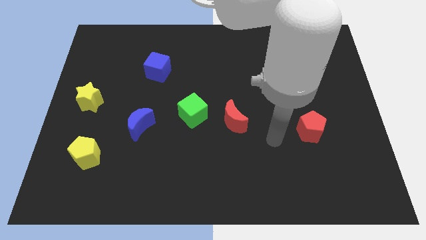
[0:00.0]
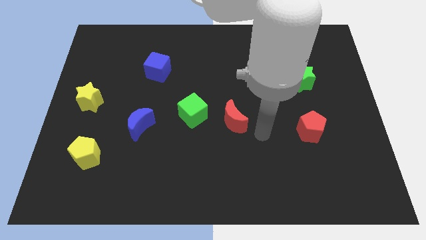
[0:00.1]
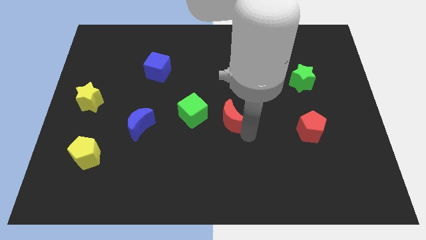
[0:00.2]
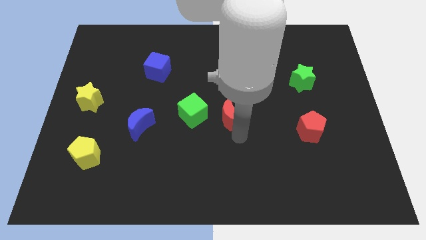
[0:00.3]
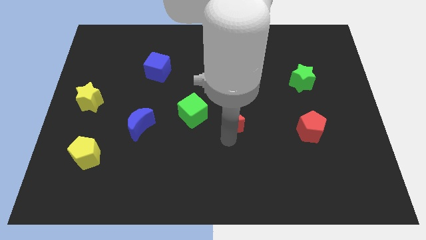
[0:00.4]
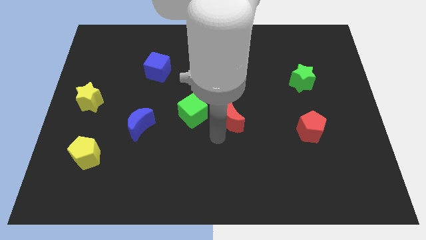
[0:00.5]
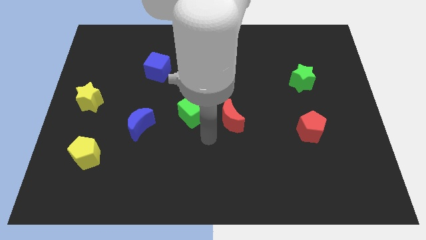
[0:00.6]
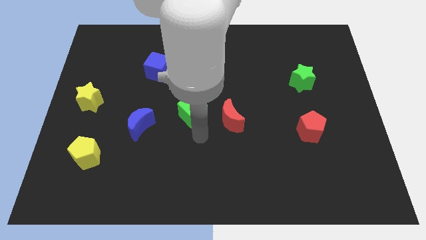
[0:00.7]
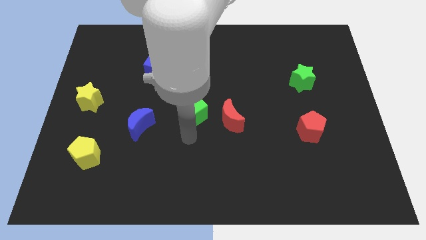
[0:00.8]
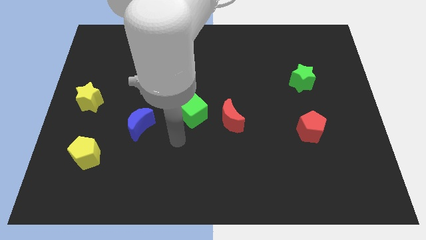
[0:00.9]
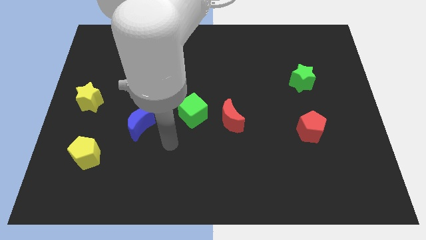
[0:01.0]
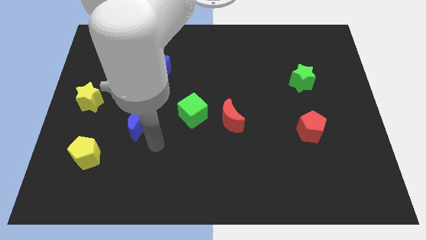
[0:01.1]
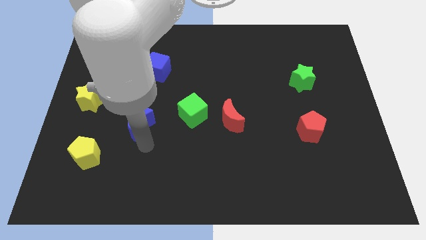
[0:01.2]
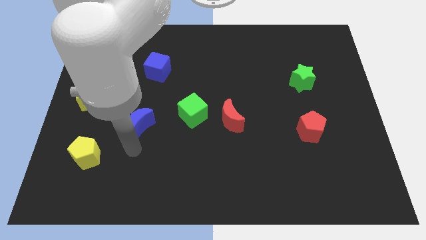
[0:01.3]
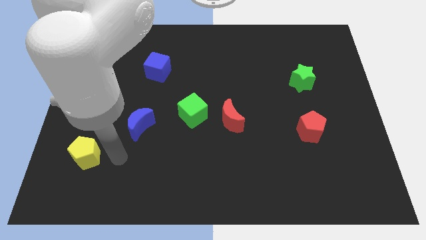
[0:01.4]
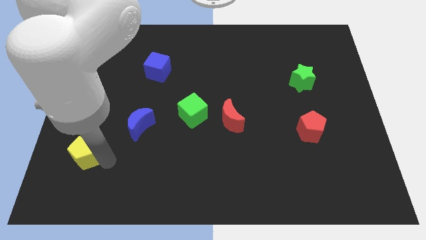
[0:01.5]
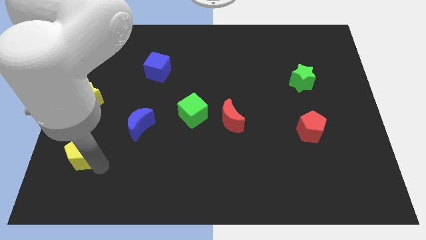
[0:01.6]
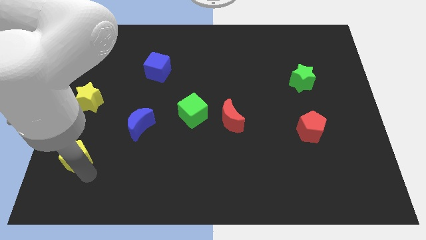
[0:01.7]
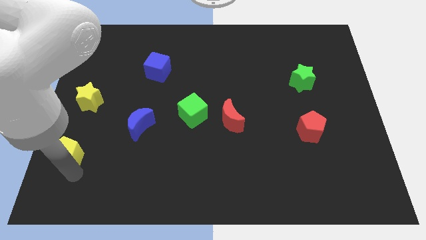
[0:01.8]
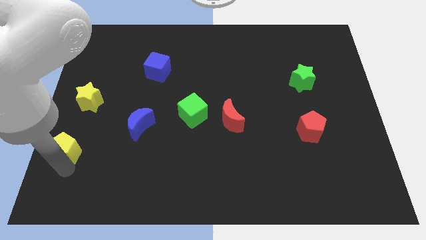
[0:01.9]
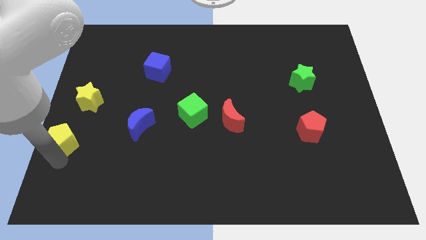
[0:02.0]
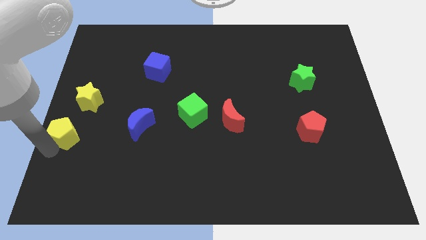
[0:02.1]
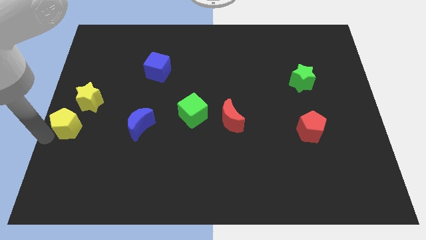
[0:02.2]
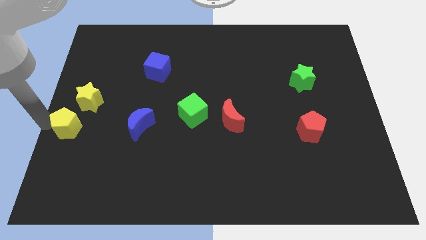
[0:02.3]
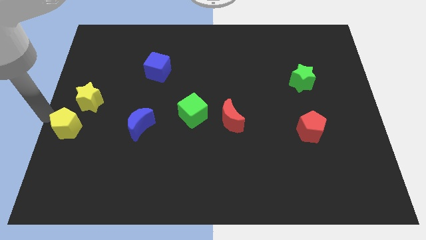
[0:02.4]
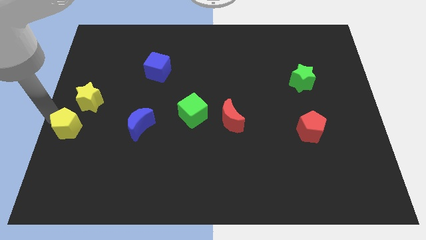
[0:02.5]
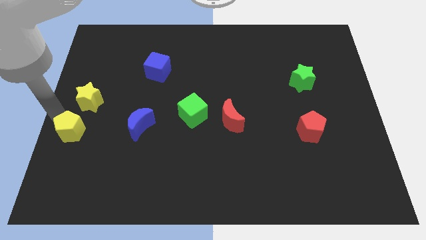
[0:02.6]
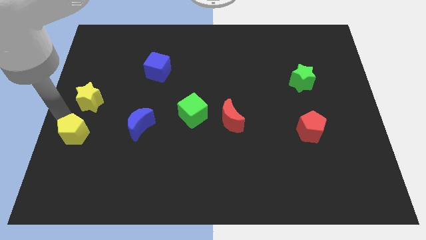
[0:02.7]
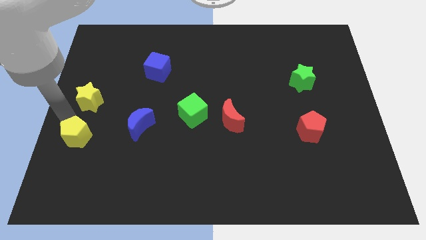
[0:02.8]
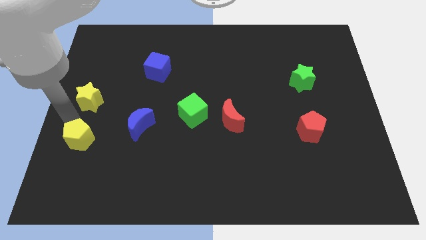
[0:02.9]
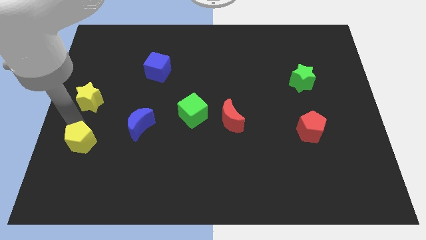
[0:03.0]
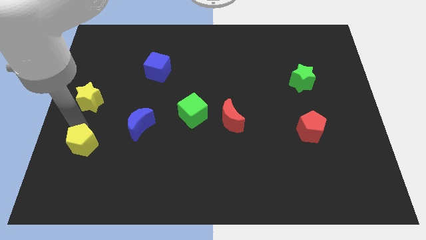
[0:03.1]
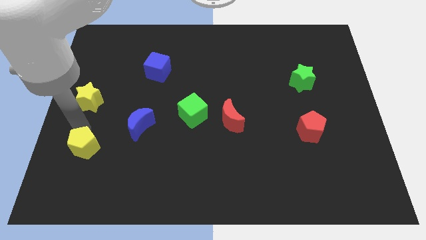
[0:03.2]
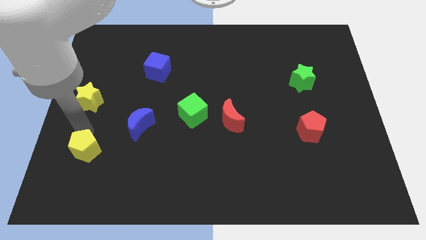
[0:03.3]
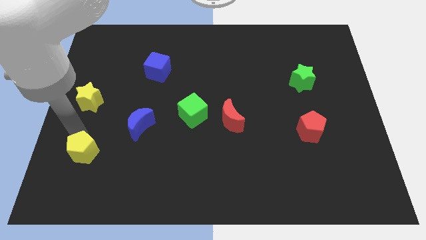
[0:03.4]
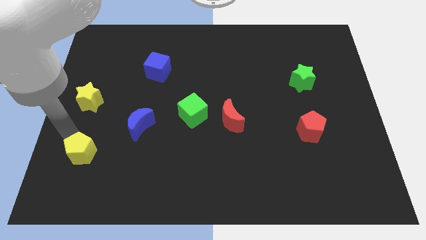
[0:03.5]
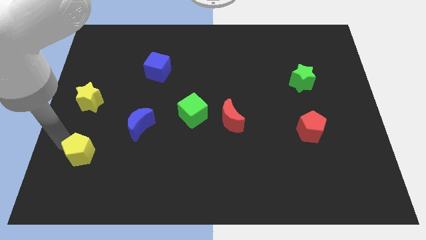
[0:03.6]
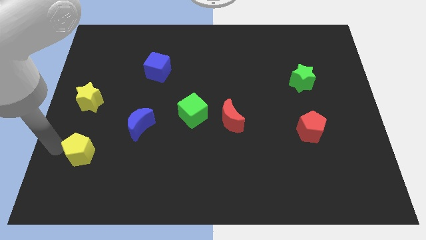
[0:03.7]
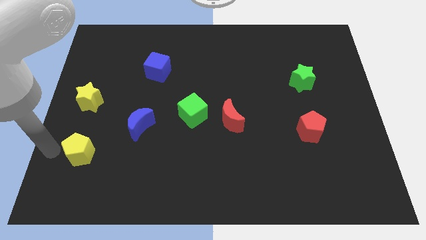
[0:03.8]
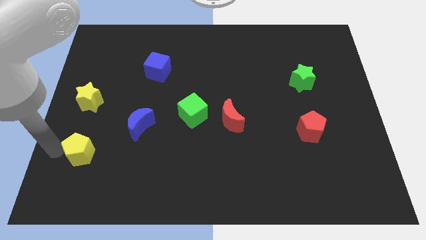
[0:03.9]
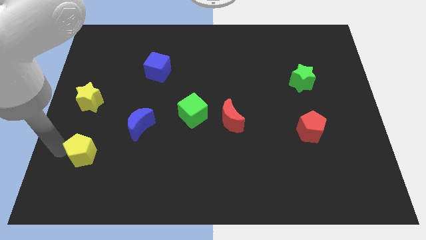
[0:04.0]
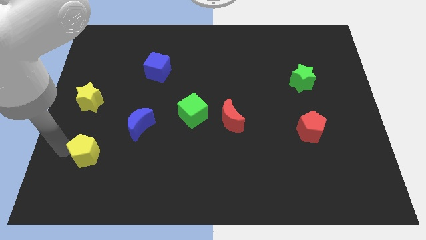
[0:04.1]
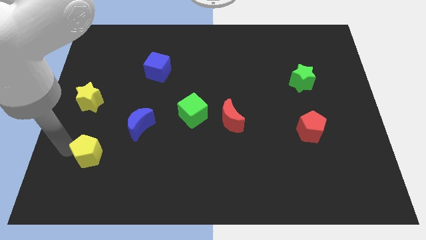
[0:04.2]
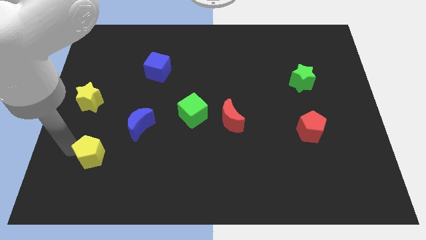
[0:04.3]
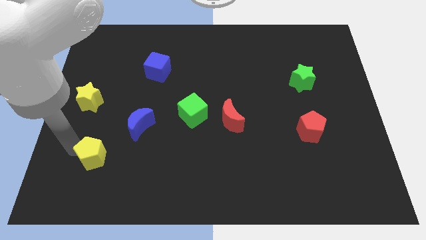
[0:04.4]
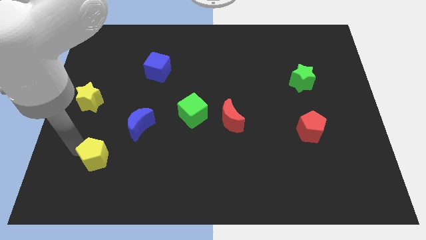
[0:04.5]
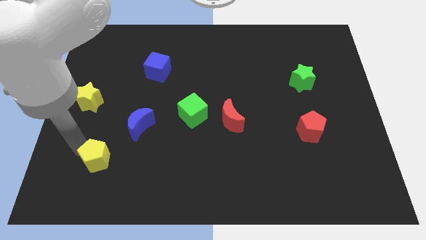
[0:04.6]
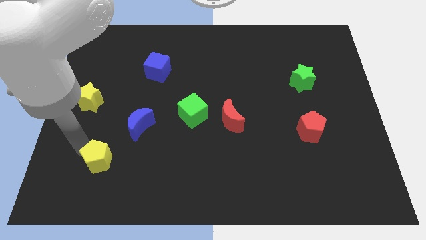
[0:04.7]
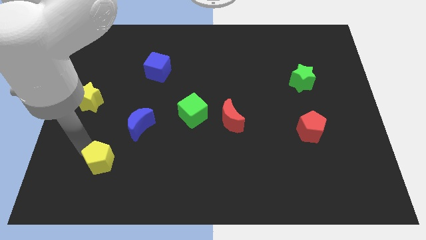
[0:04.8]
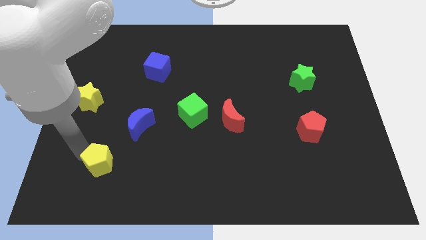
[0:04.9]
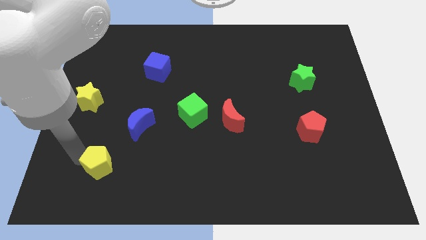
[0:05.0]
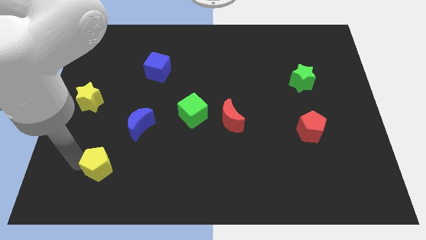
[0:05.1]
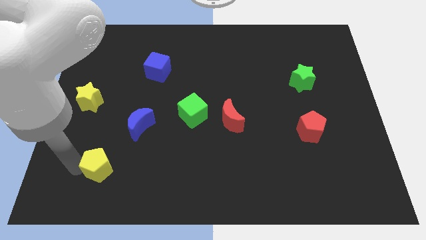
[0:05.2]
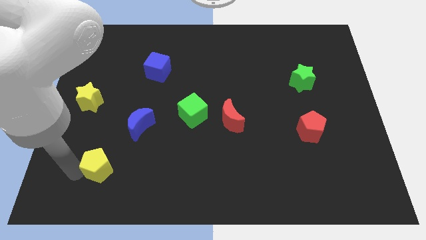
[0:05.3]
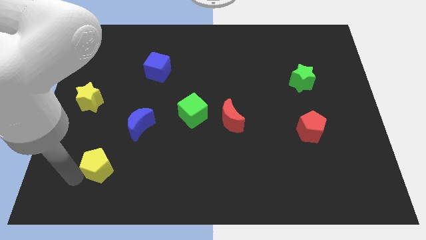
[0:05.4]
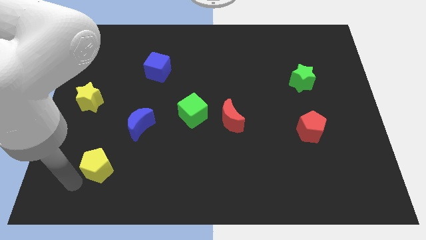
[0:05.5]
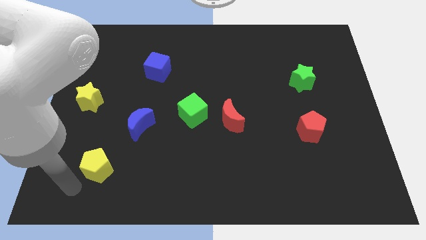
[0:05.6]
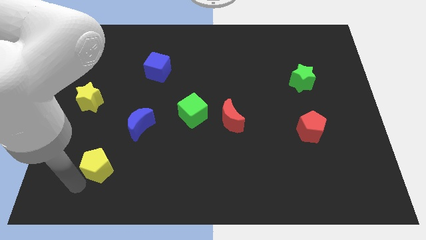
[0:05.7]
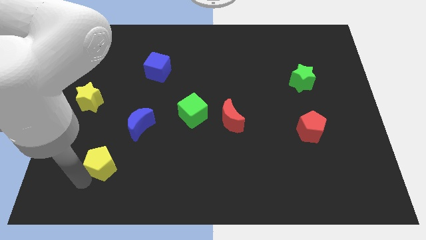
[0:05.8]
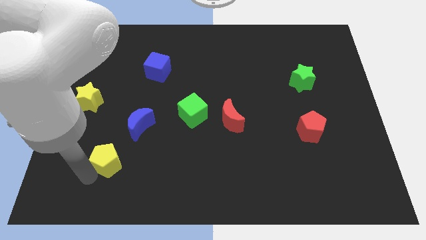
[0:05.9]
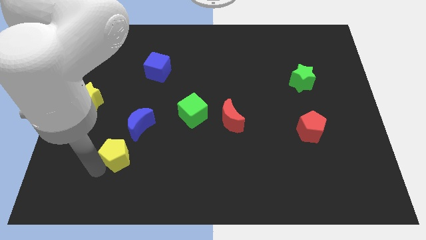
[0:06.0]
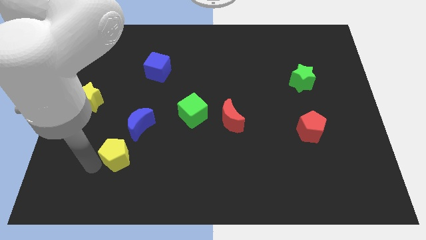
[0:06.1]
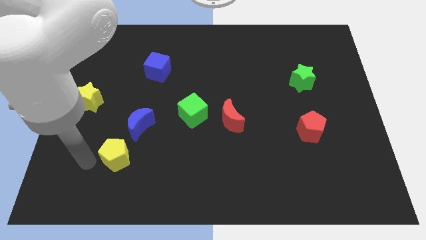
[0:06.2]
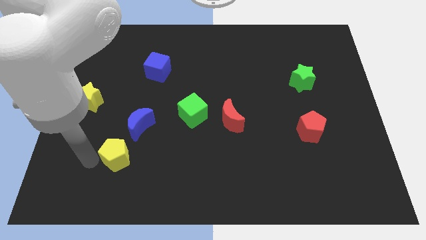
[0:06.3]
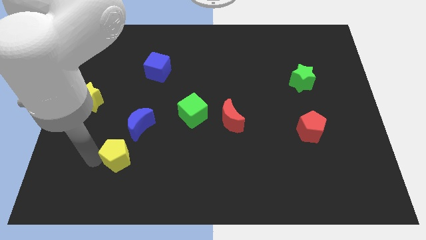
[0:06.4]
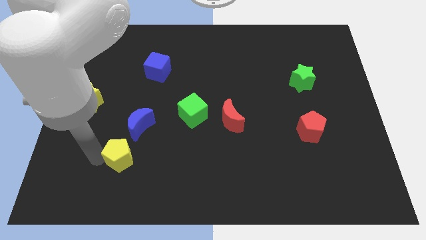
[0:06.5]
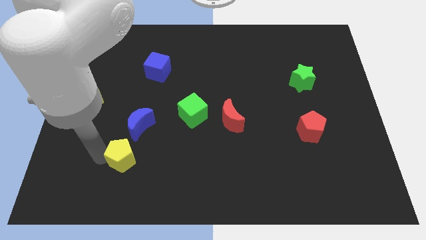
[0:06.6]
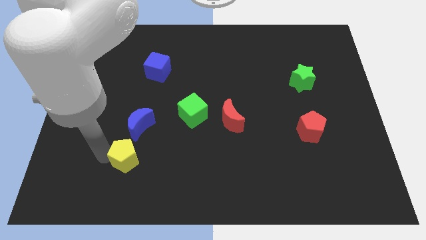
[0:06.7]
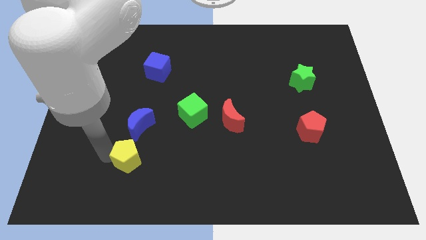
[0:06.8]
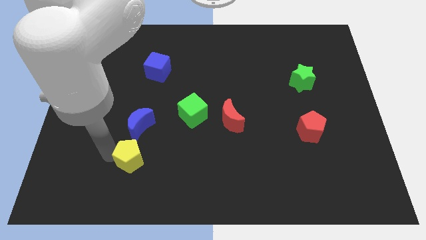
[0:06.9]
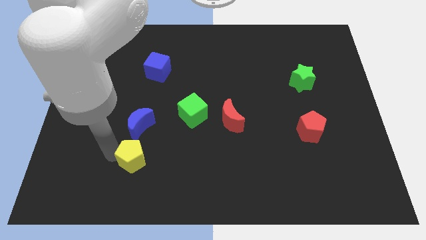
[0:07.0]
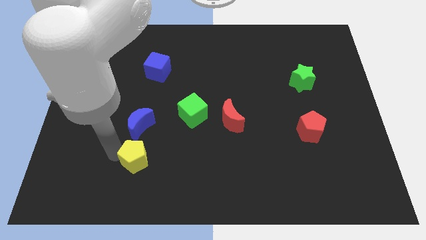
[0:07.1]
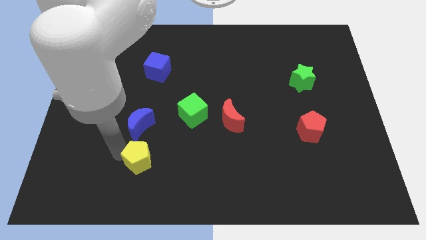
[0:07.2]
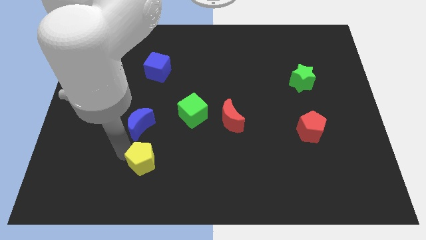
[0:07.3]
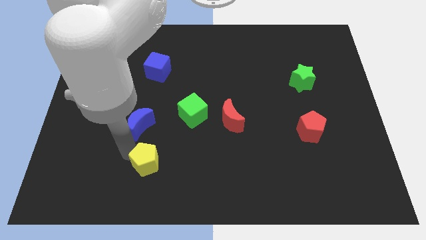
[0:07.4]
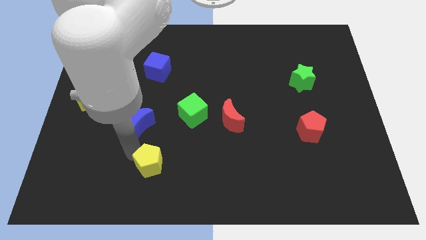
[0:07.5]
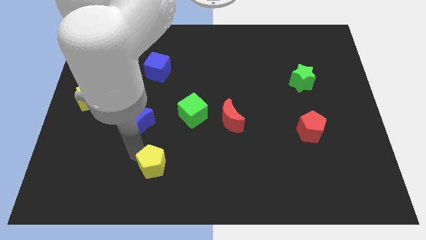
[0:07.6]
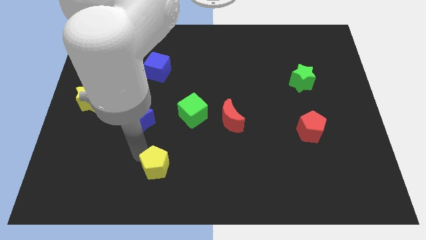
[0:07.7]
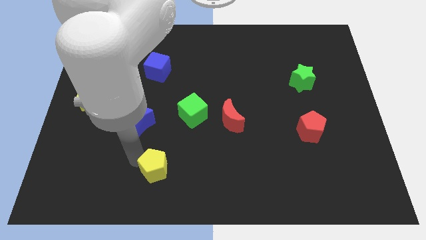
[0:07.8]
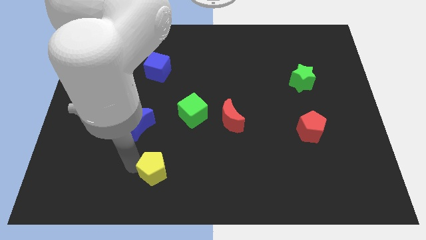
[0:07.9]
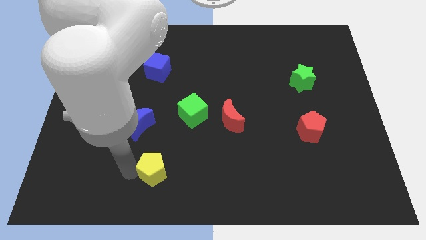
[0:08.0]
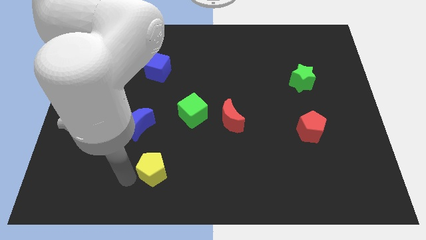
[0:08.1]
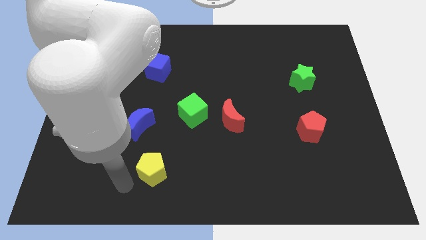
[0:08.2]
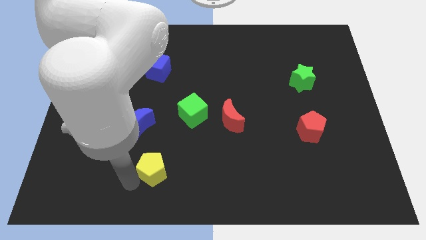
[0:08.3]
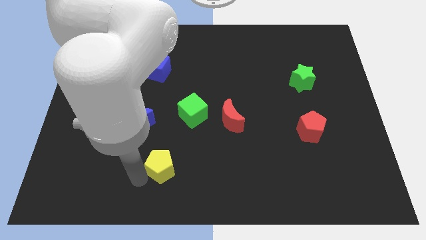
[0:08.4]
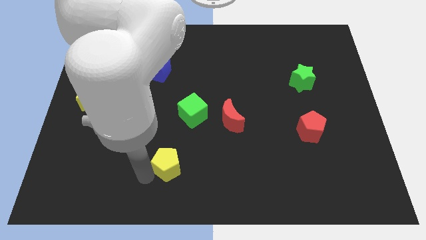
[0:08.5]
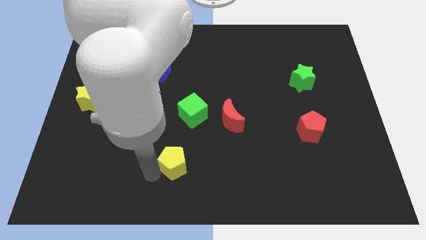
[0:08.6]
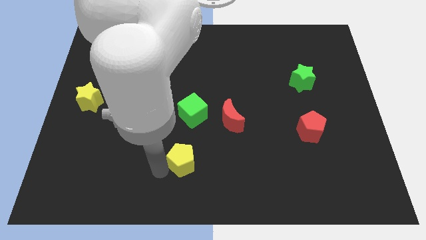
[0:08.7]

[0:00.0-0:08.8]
slide the yellow pentagon to the right
